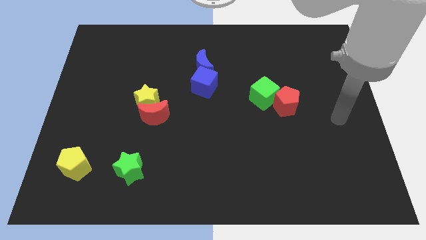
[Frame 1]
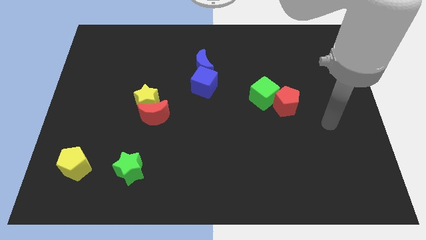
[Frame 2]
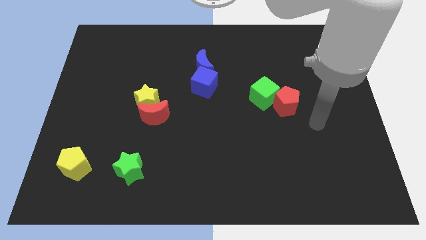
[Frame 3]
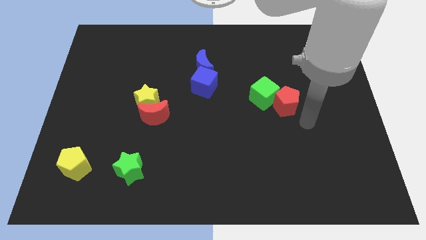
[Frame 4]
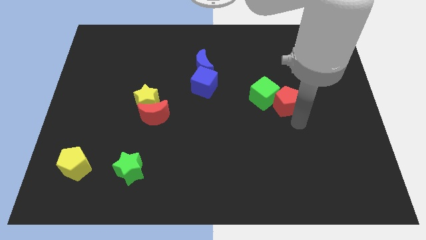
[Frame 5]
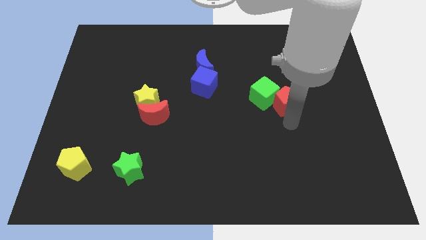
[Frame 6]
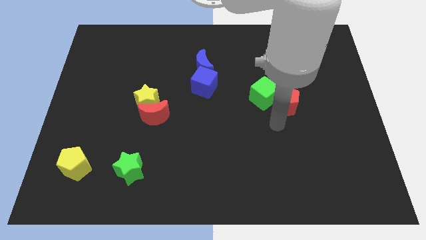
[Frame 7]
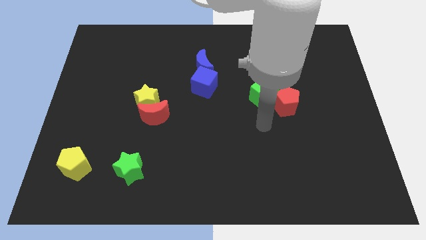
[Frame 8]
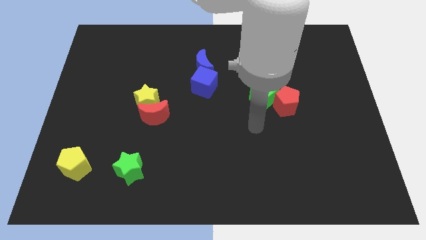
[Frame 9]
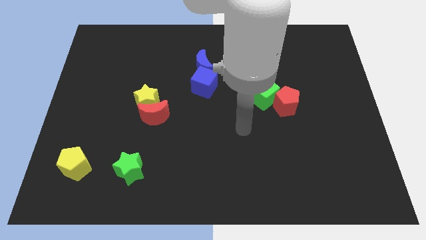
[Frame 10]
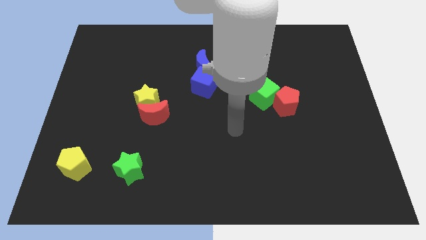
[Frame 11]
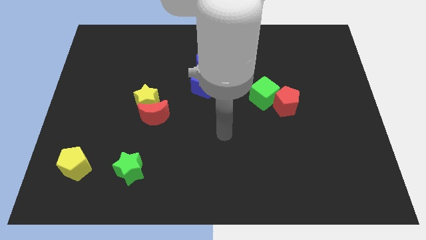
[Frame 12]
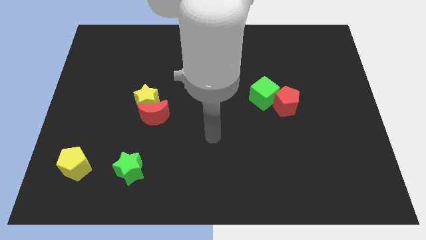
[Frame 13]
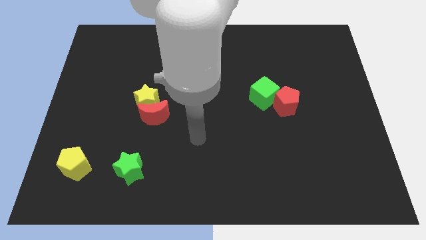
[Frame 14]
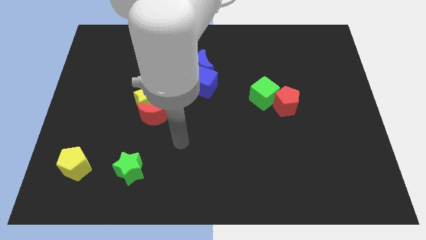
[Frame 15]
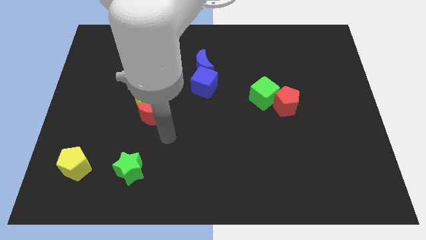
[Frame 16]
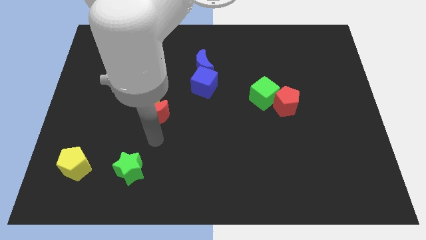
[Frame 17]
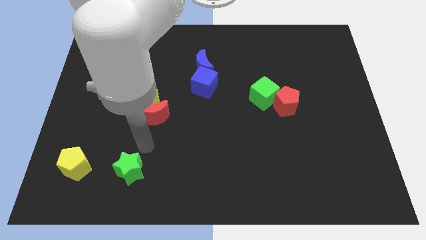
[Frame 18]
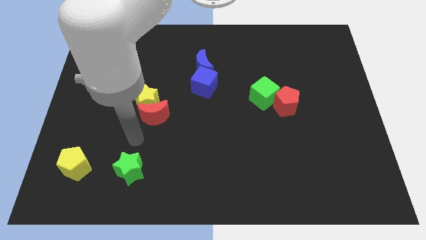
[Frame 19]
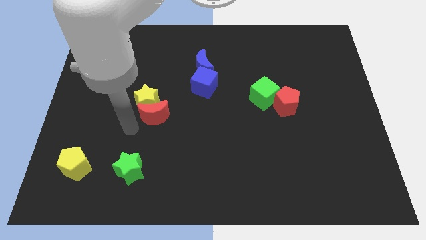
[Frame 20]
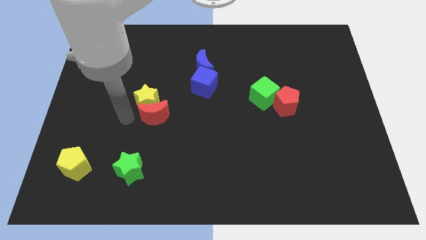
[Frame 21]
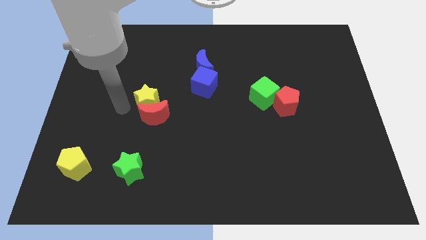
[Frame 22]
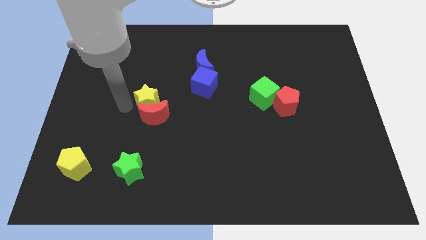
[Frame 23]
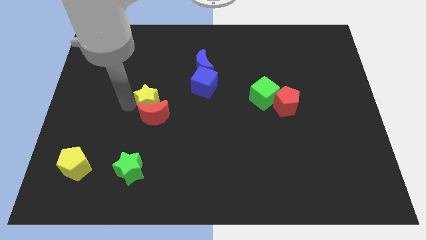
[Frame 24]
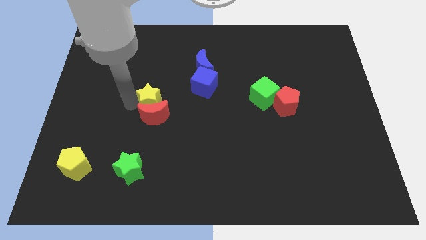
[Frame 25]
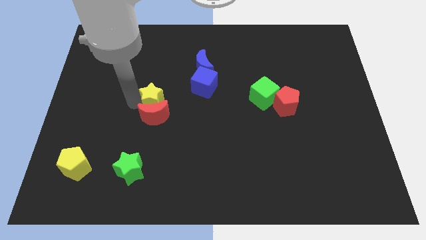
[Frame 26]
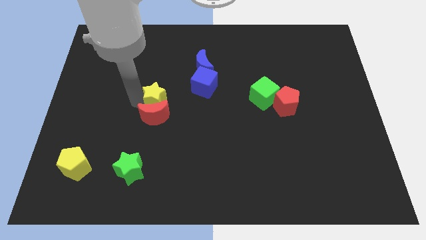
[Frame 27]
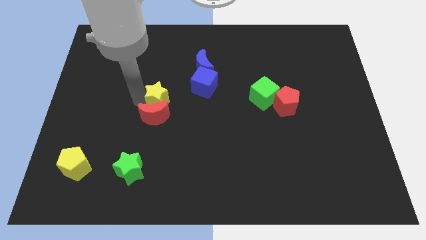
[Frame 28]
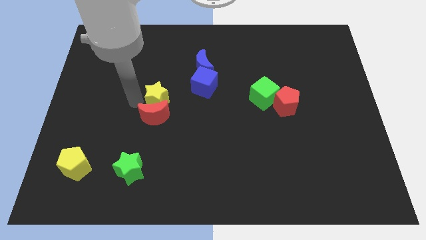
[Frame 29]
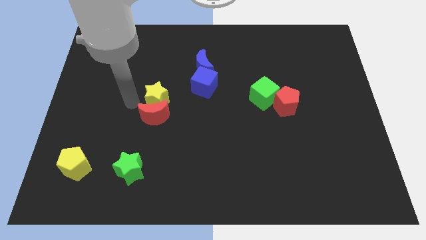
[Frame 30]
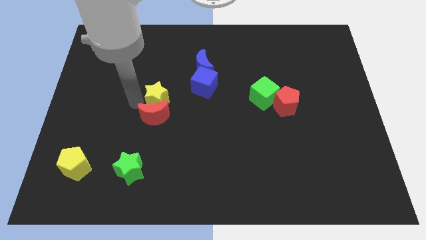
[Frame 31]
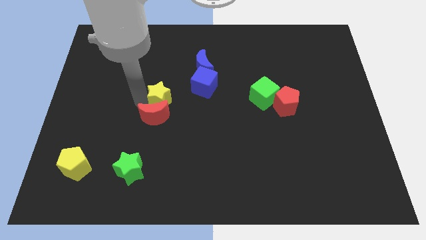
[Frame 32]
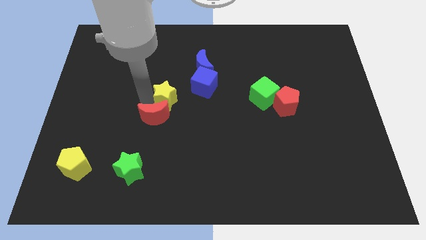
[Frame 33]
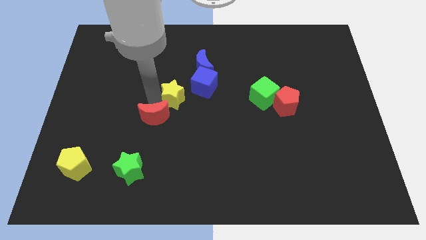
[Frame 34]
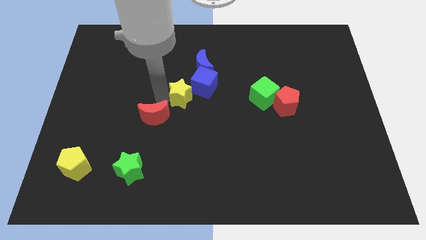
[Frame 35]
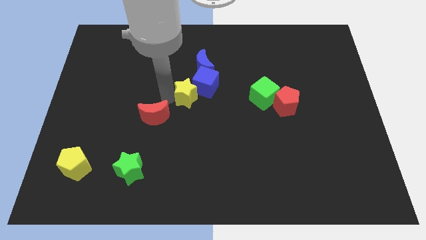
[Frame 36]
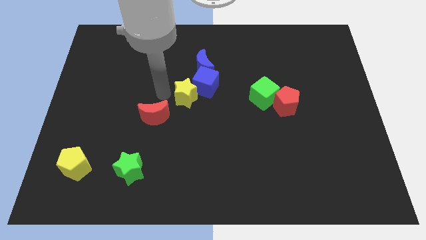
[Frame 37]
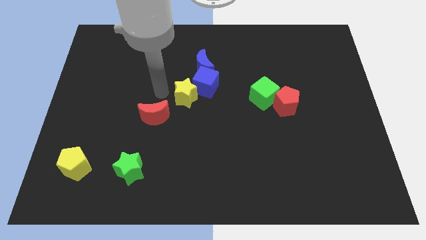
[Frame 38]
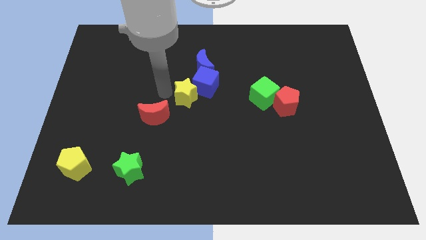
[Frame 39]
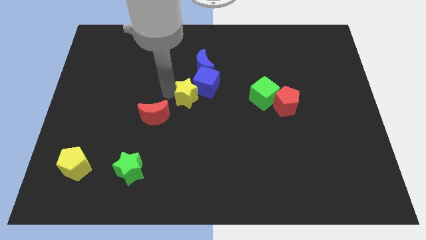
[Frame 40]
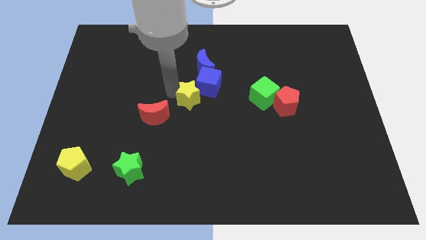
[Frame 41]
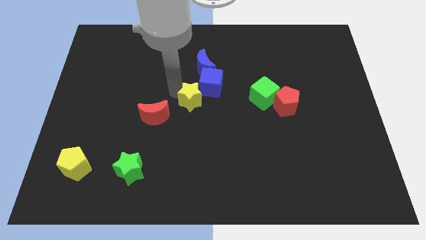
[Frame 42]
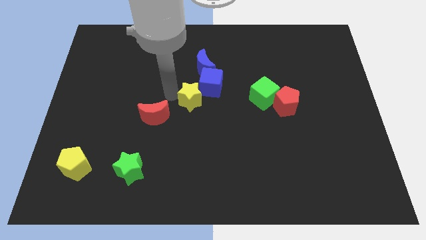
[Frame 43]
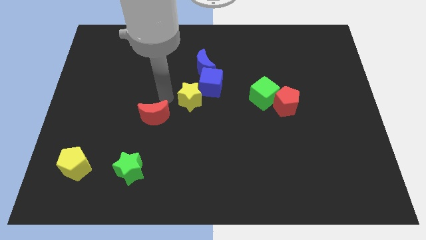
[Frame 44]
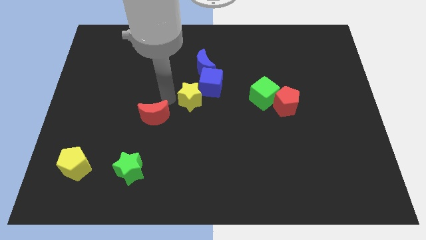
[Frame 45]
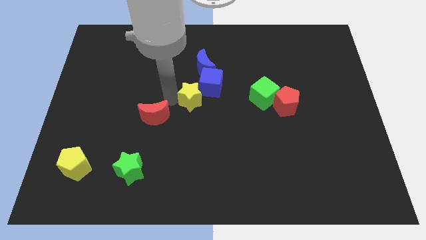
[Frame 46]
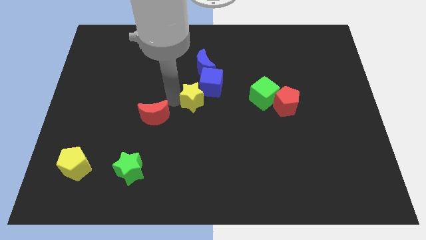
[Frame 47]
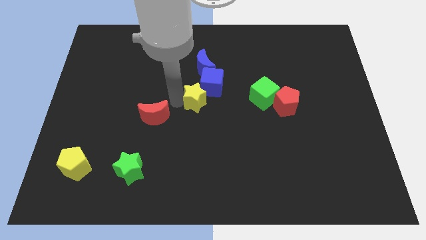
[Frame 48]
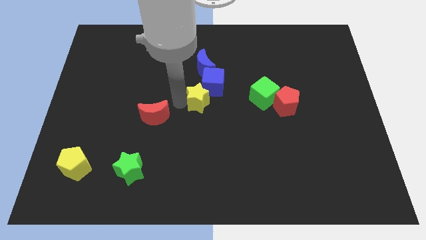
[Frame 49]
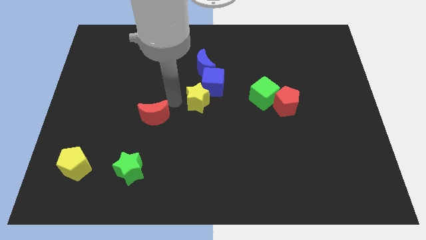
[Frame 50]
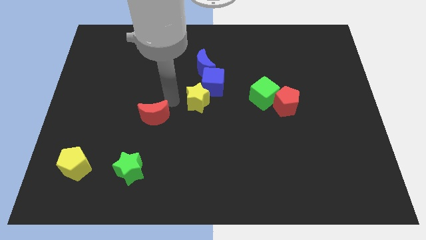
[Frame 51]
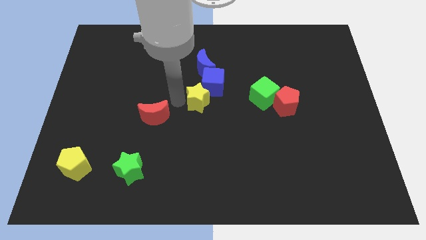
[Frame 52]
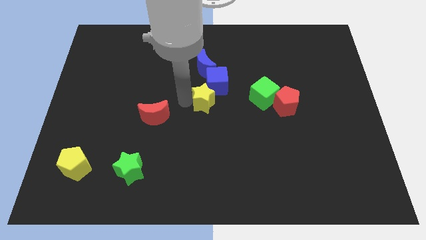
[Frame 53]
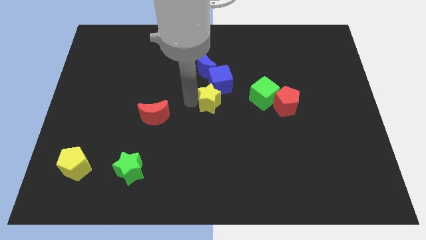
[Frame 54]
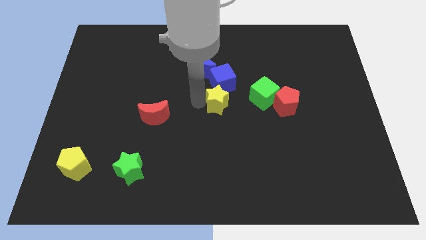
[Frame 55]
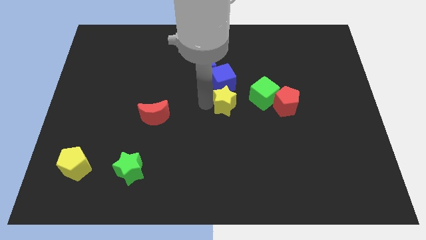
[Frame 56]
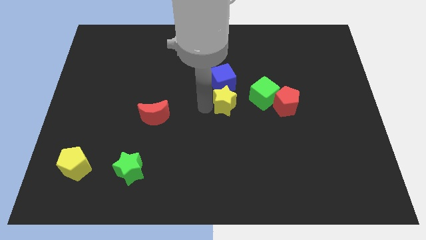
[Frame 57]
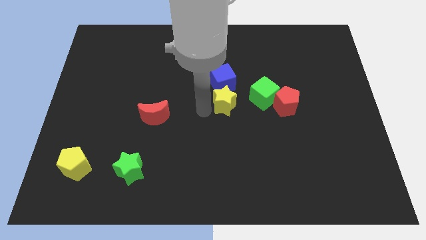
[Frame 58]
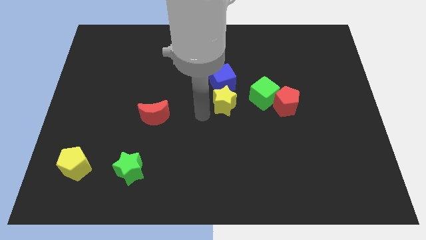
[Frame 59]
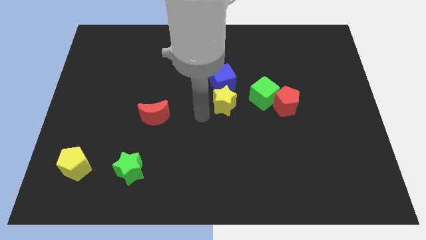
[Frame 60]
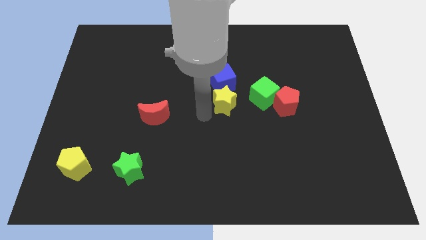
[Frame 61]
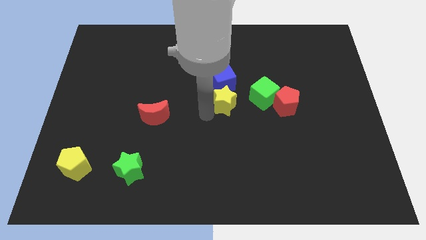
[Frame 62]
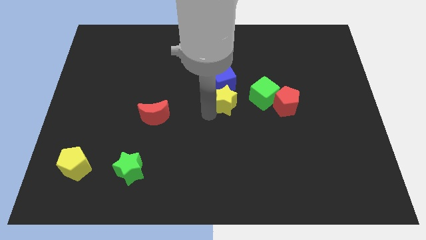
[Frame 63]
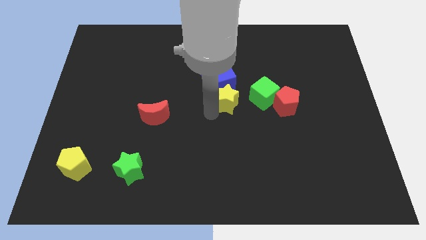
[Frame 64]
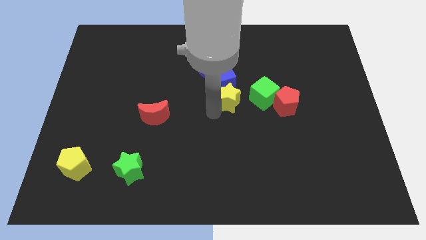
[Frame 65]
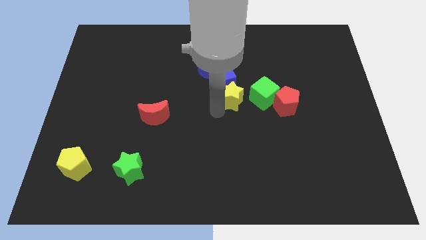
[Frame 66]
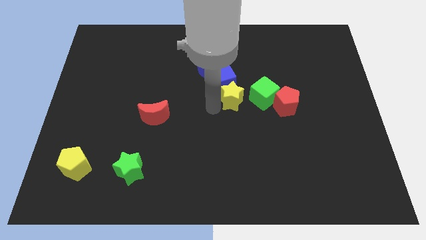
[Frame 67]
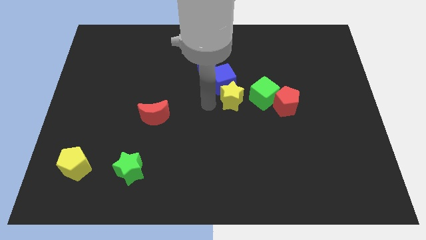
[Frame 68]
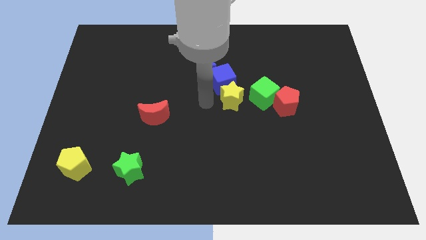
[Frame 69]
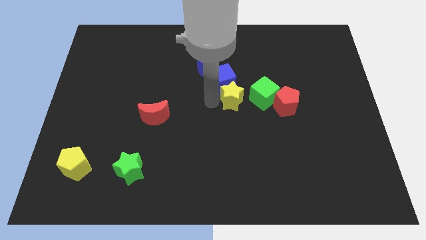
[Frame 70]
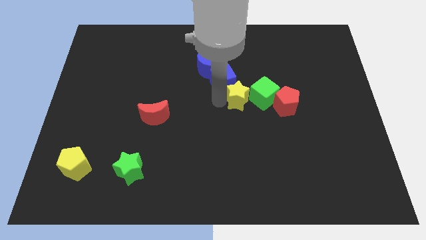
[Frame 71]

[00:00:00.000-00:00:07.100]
put the yellow star towards the green cube

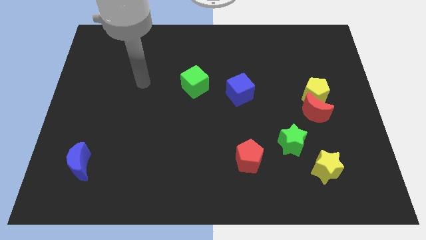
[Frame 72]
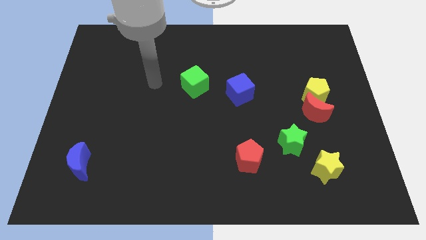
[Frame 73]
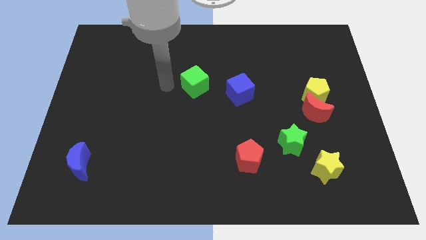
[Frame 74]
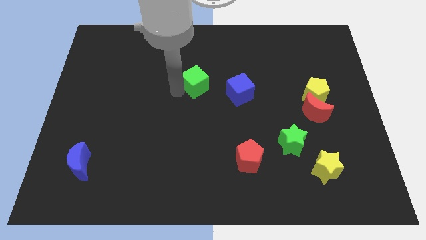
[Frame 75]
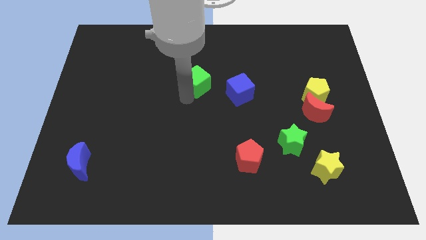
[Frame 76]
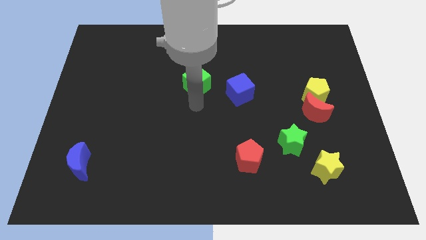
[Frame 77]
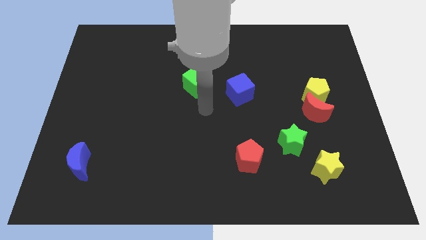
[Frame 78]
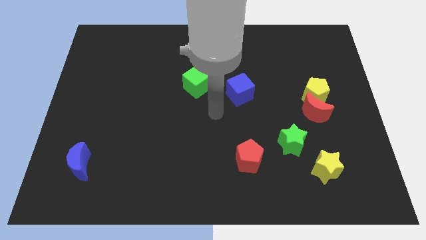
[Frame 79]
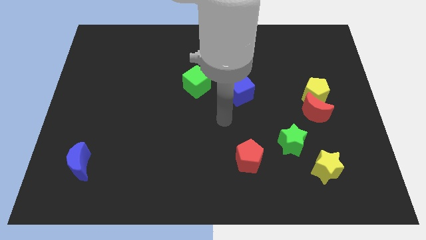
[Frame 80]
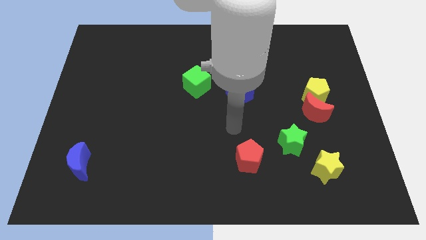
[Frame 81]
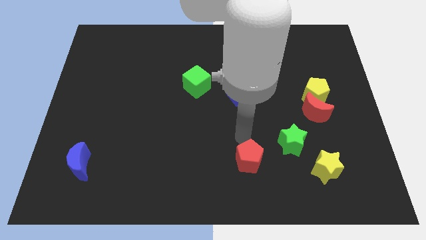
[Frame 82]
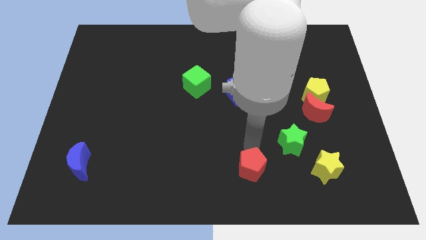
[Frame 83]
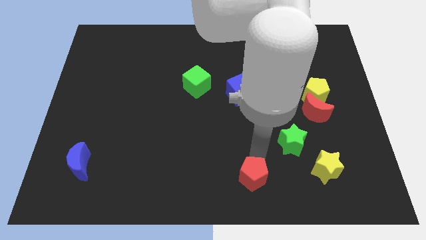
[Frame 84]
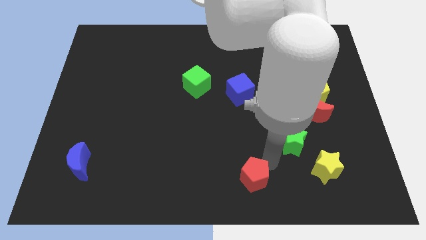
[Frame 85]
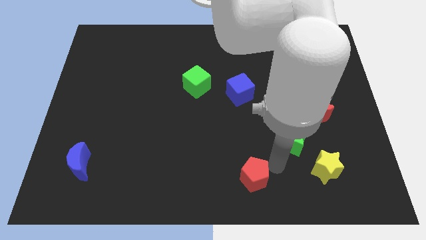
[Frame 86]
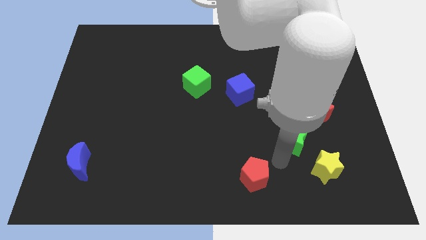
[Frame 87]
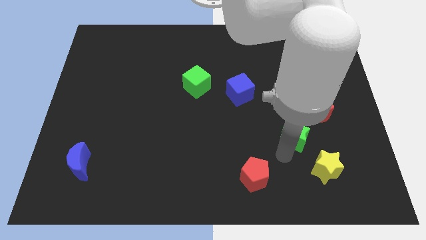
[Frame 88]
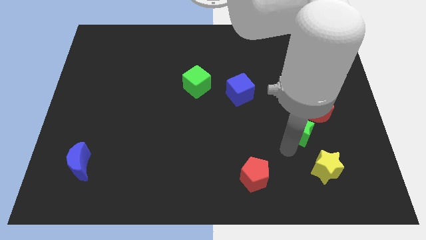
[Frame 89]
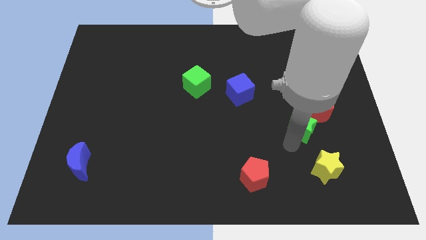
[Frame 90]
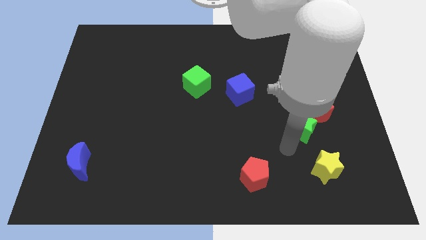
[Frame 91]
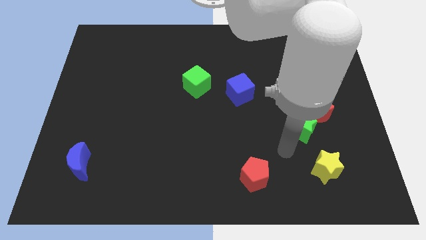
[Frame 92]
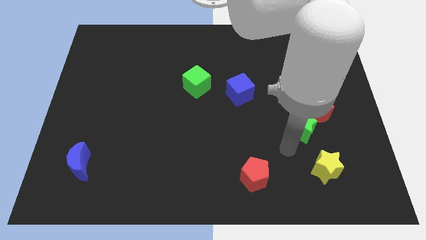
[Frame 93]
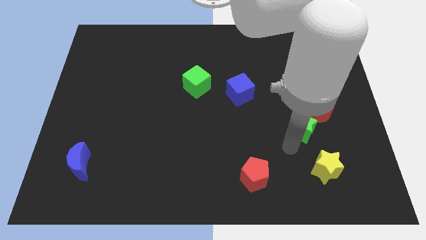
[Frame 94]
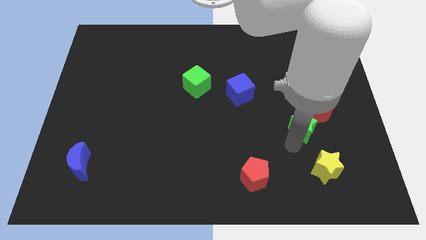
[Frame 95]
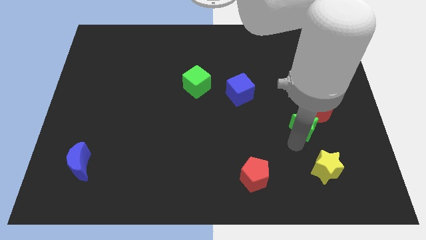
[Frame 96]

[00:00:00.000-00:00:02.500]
push the green star close to the red moon
